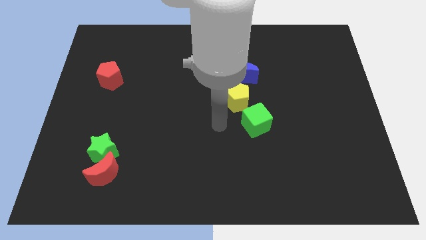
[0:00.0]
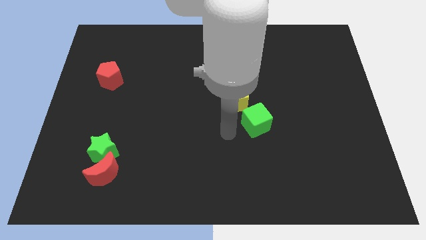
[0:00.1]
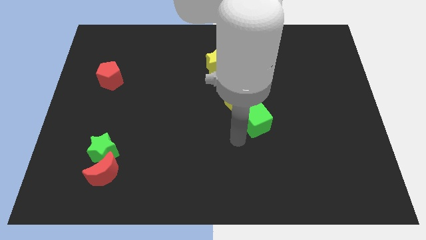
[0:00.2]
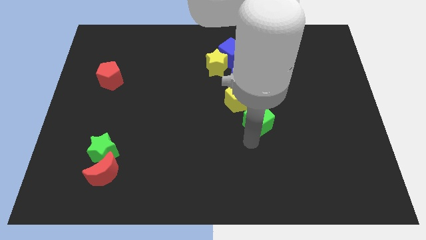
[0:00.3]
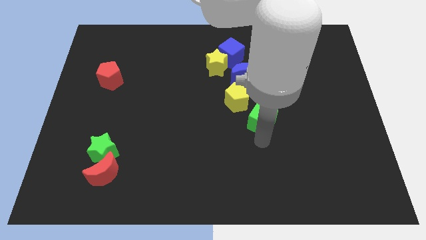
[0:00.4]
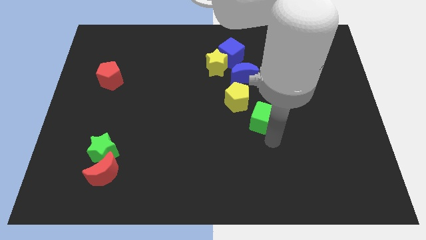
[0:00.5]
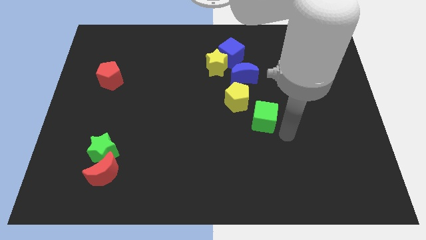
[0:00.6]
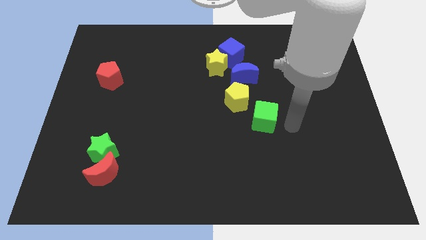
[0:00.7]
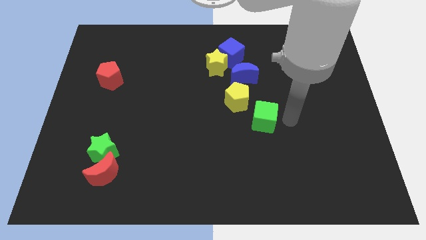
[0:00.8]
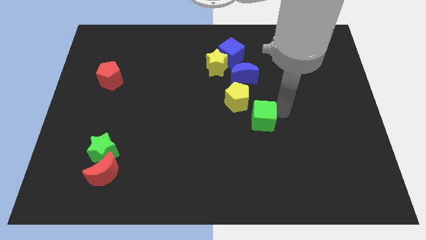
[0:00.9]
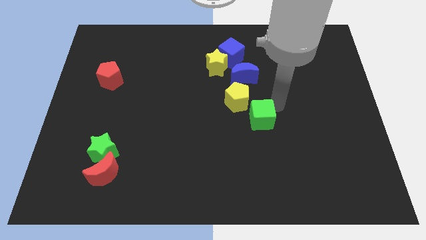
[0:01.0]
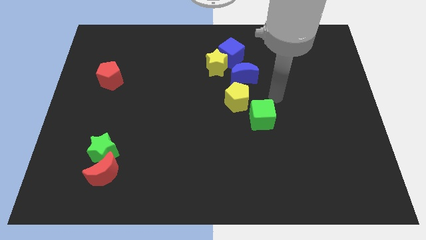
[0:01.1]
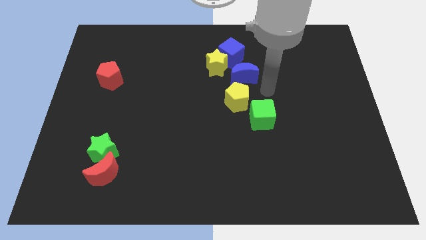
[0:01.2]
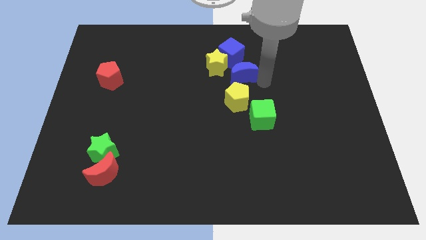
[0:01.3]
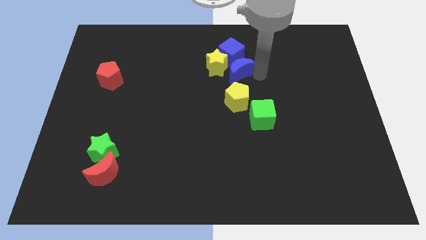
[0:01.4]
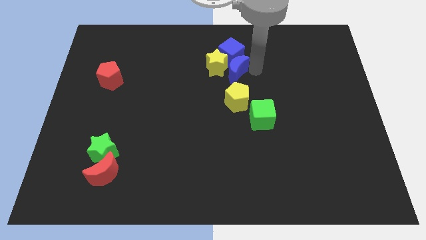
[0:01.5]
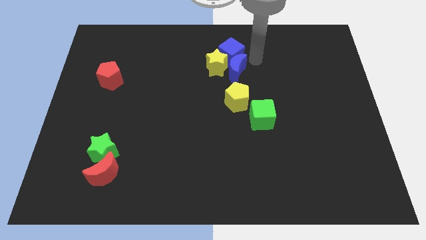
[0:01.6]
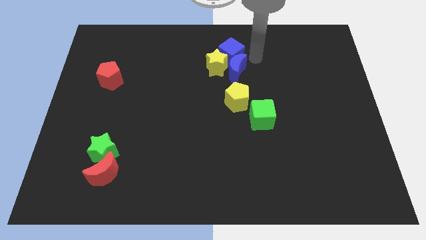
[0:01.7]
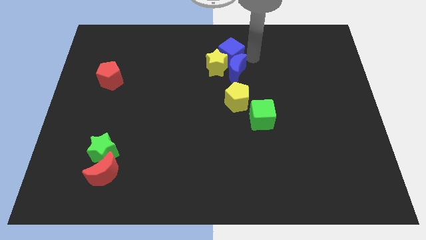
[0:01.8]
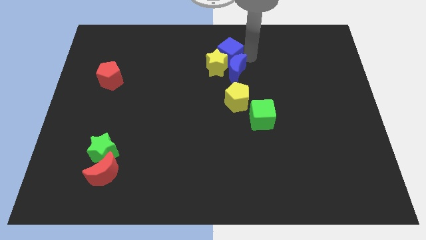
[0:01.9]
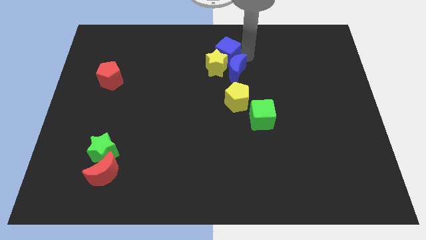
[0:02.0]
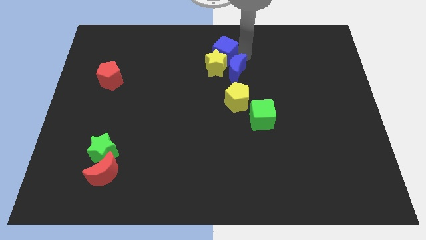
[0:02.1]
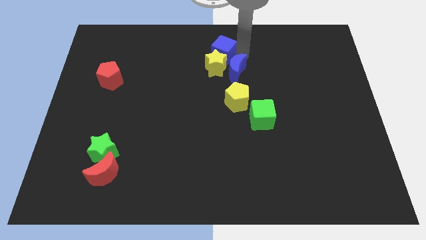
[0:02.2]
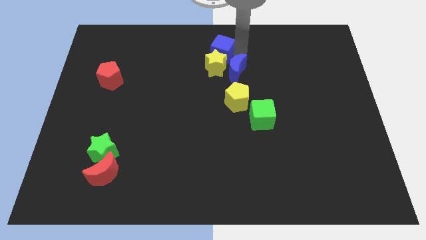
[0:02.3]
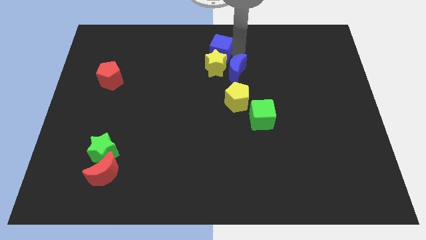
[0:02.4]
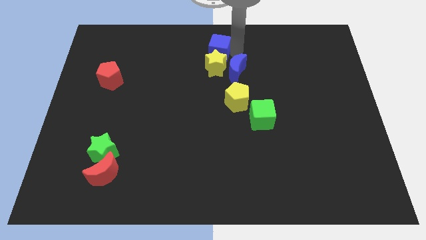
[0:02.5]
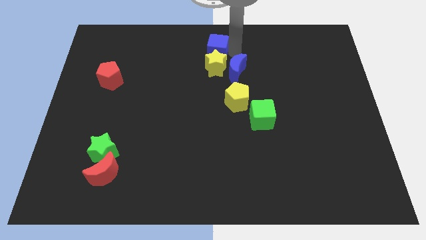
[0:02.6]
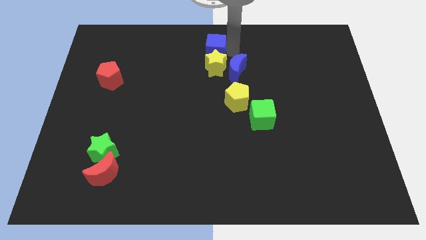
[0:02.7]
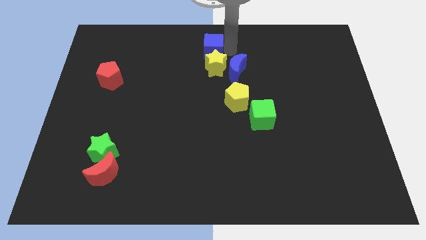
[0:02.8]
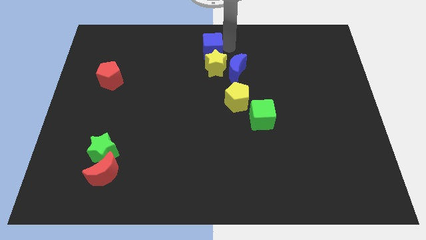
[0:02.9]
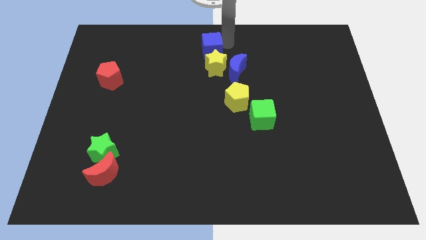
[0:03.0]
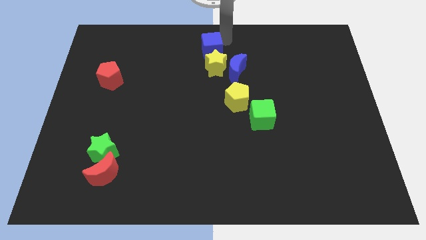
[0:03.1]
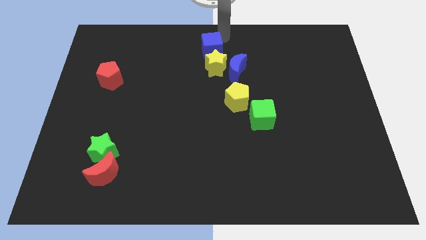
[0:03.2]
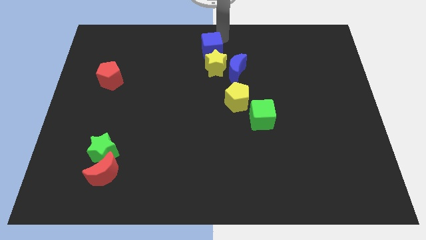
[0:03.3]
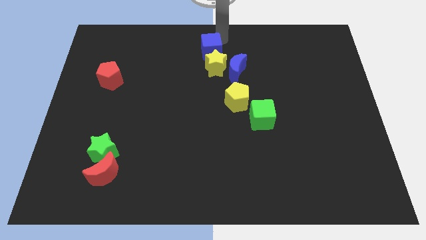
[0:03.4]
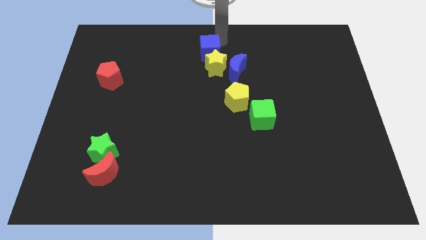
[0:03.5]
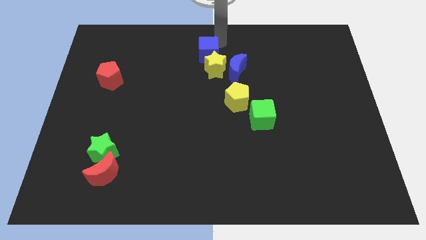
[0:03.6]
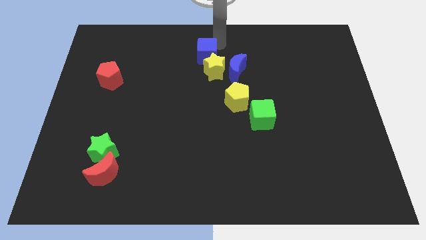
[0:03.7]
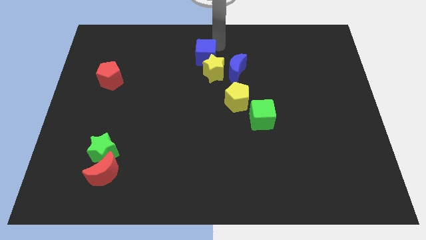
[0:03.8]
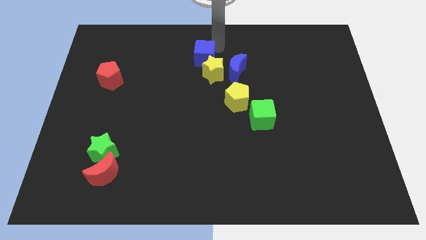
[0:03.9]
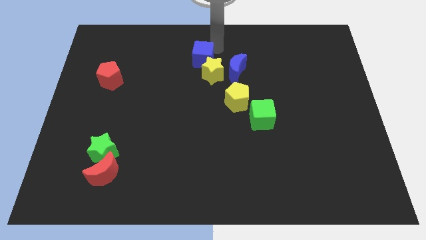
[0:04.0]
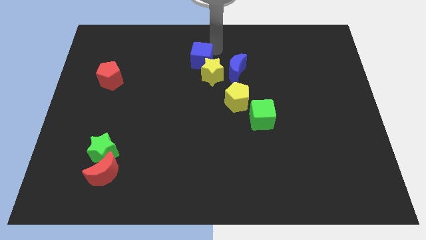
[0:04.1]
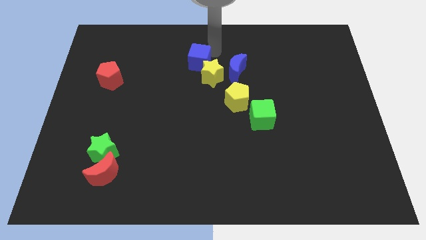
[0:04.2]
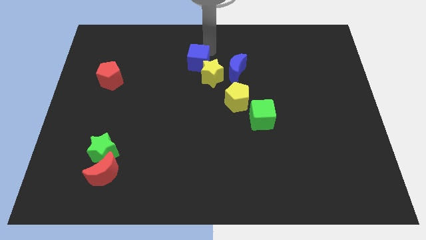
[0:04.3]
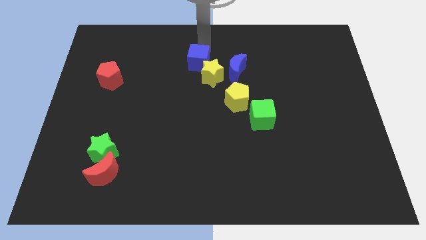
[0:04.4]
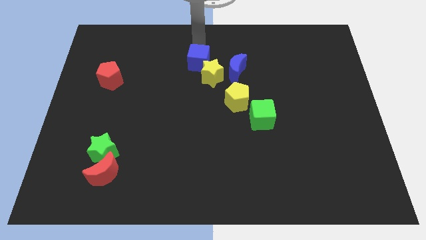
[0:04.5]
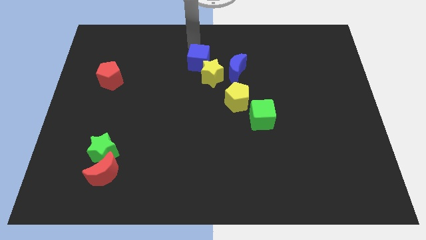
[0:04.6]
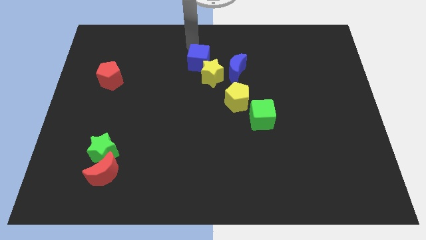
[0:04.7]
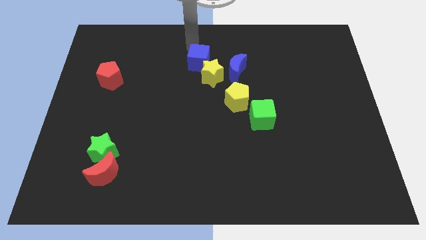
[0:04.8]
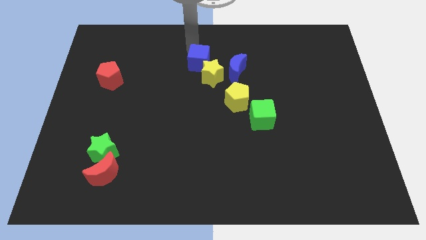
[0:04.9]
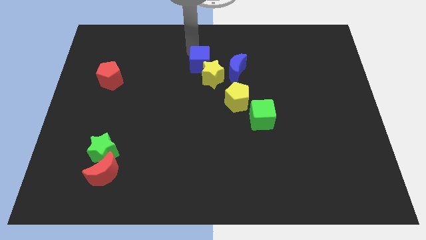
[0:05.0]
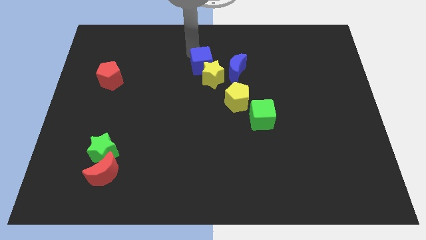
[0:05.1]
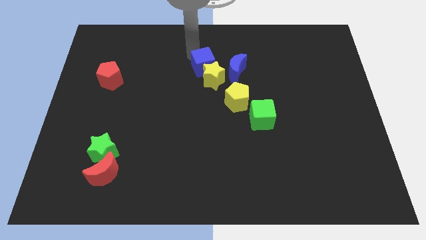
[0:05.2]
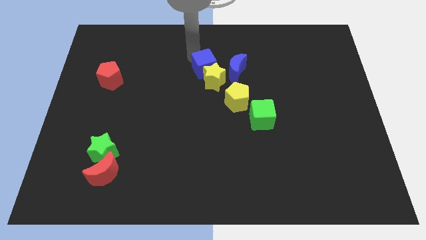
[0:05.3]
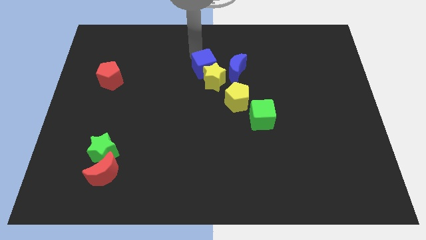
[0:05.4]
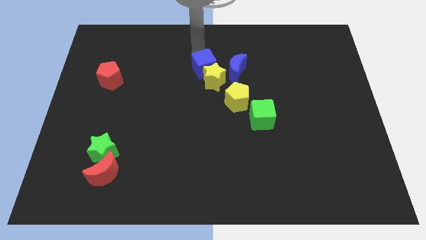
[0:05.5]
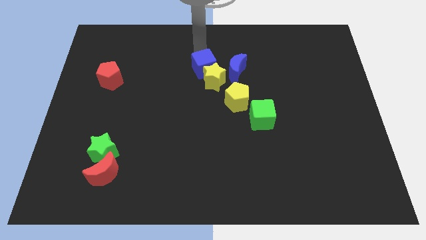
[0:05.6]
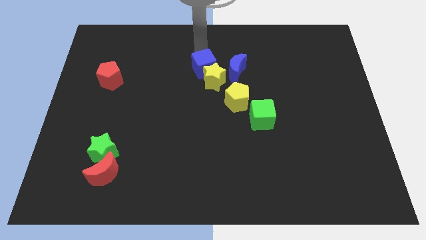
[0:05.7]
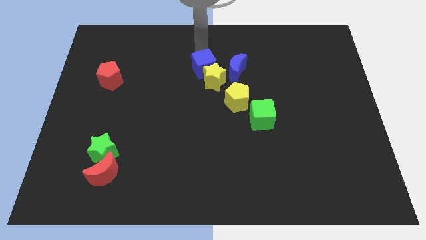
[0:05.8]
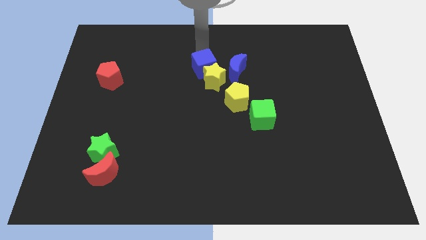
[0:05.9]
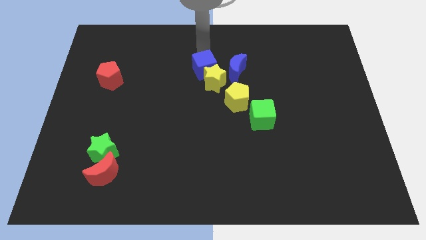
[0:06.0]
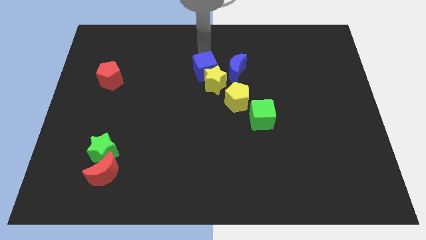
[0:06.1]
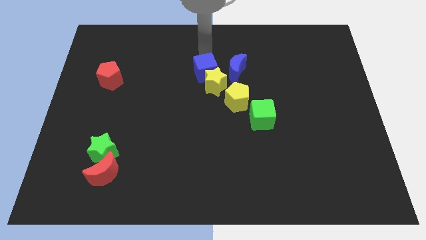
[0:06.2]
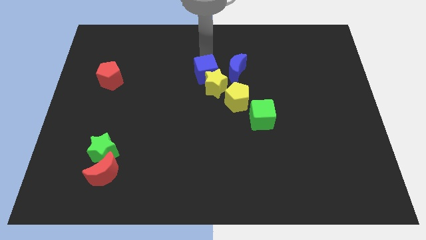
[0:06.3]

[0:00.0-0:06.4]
slide the blue cube diagonally down and to the left of the blue moon

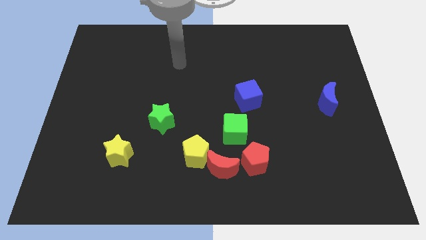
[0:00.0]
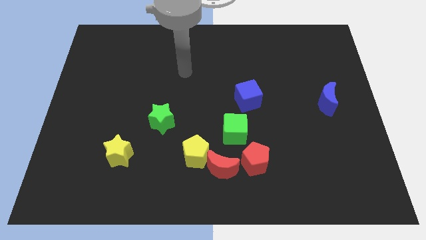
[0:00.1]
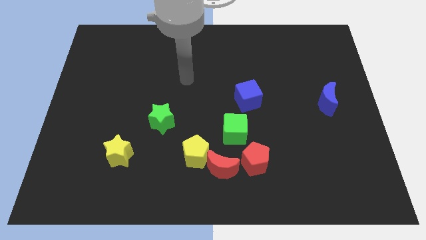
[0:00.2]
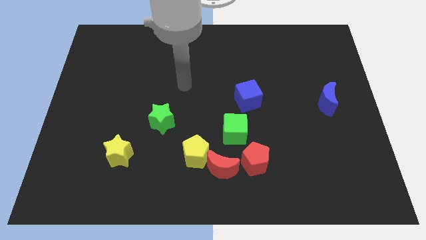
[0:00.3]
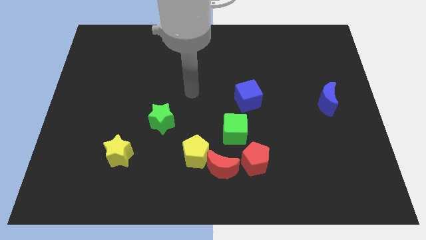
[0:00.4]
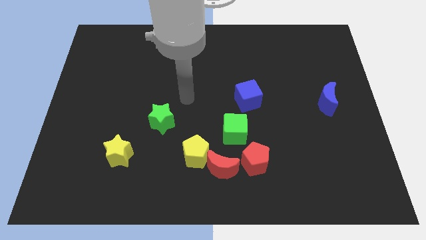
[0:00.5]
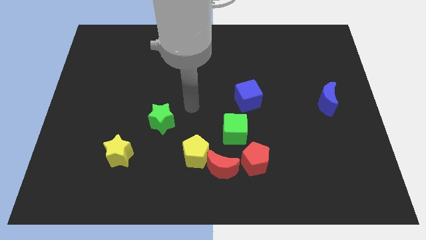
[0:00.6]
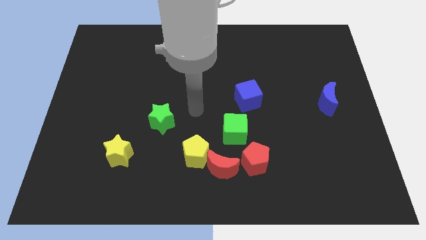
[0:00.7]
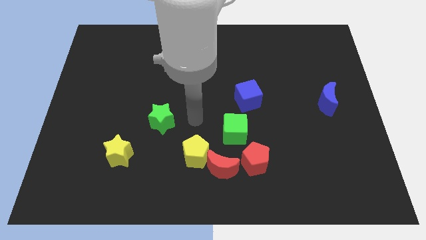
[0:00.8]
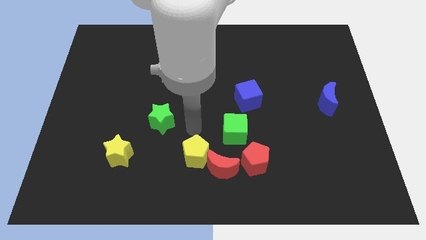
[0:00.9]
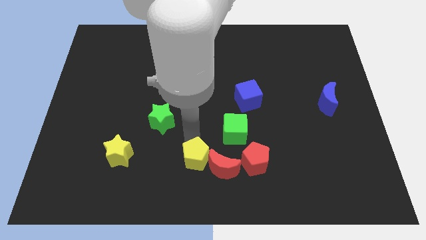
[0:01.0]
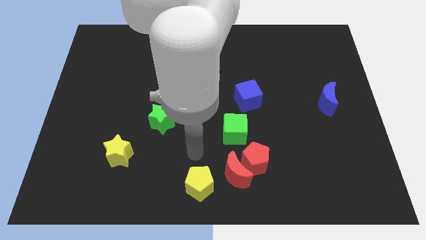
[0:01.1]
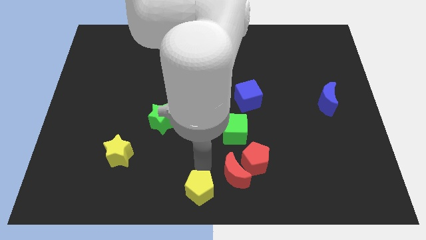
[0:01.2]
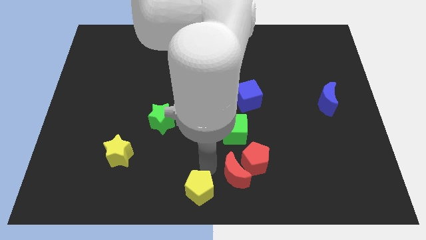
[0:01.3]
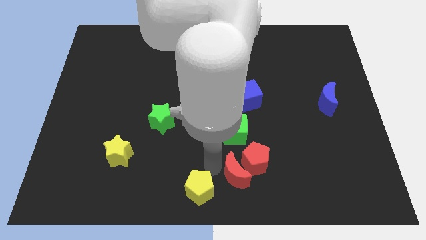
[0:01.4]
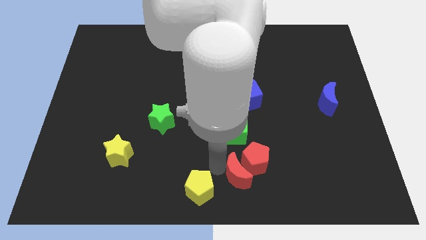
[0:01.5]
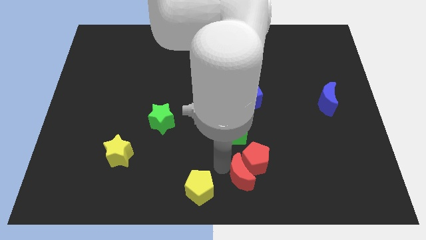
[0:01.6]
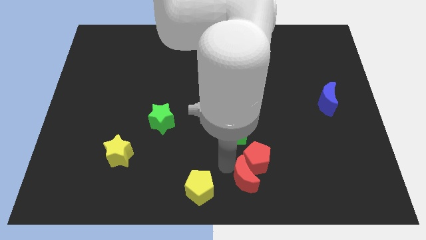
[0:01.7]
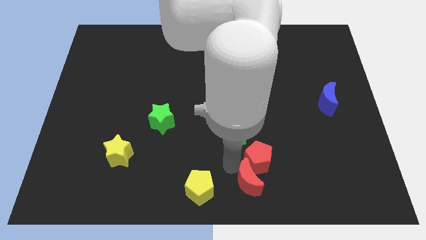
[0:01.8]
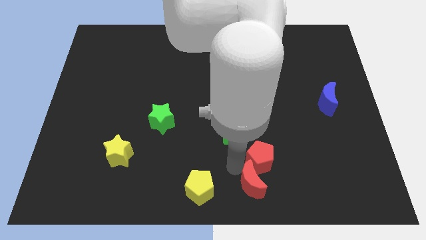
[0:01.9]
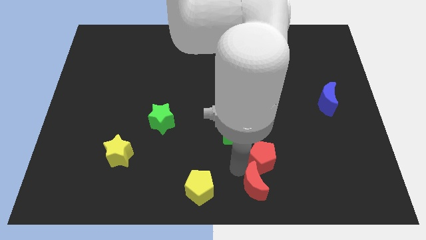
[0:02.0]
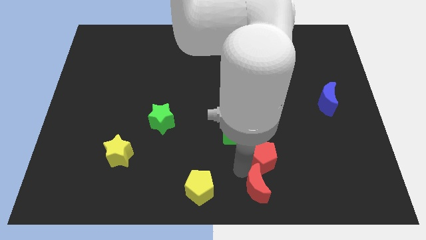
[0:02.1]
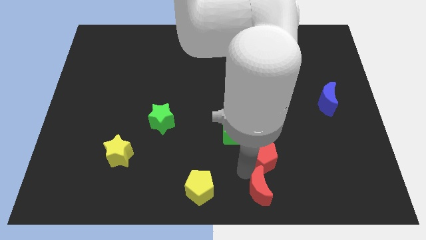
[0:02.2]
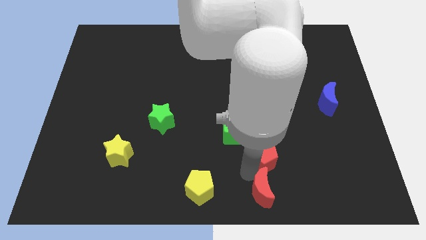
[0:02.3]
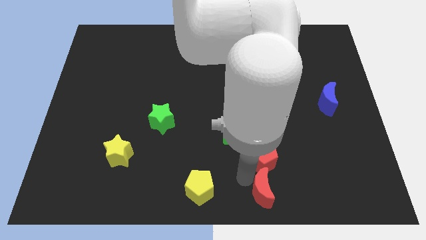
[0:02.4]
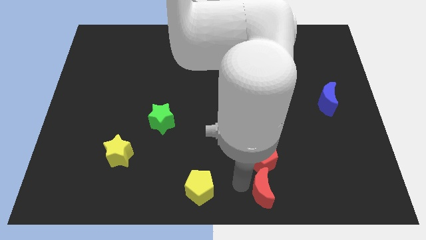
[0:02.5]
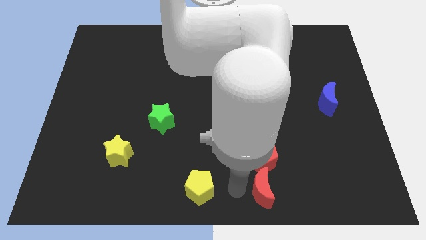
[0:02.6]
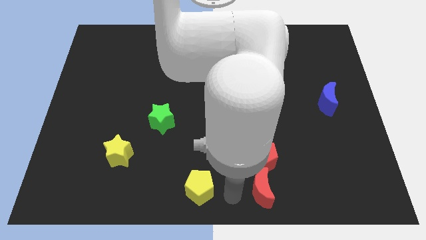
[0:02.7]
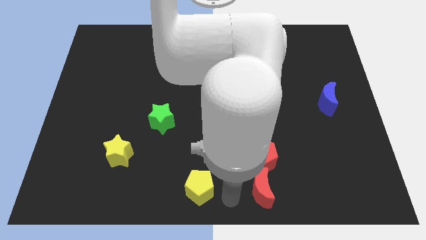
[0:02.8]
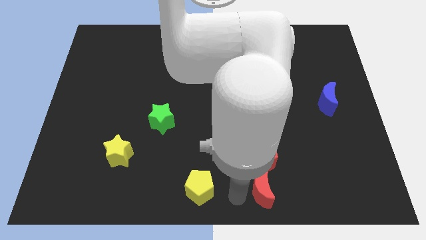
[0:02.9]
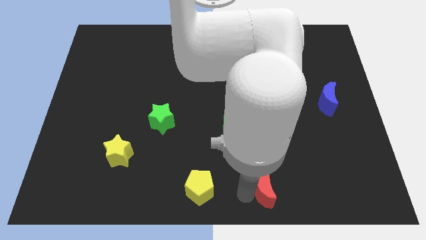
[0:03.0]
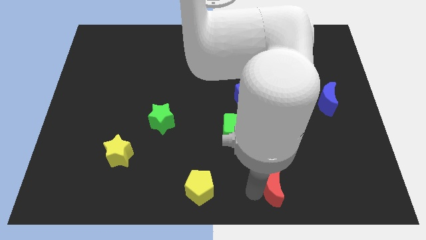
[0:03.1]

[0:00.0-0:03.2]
push the red moon to the bottom right of the red pentagon
